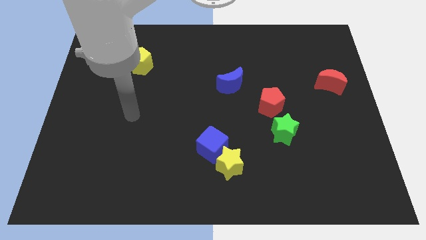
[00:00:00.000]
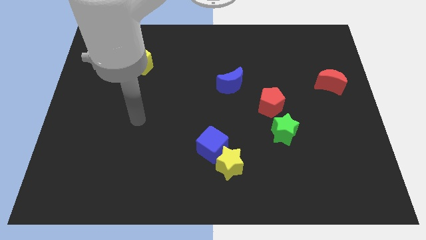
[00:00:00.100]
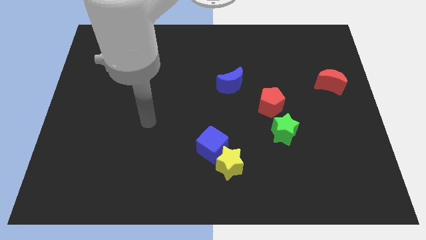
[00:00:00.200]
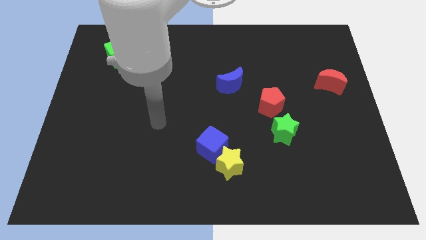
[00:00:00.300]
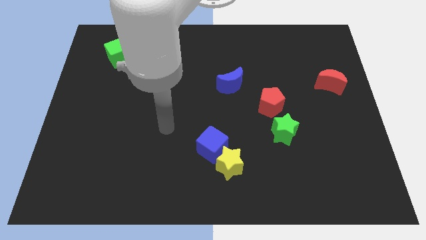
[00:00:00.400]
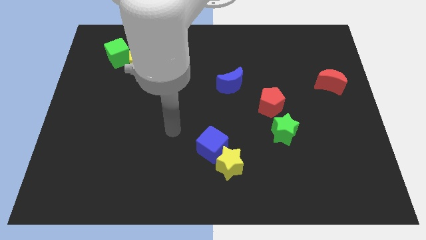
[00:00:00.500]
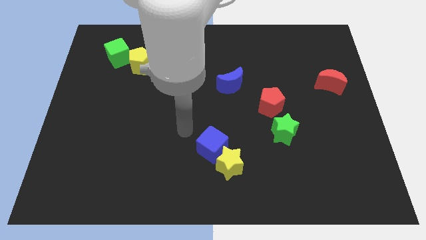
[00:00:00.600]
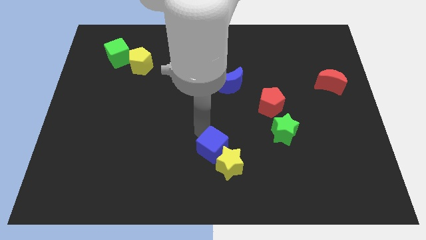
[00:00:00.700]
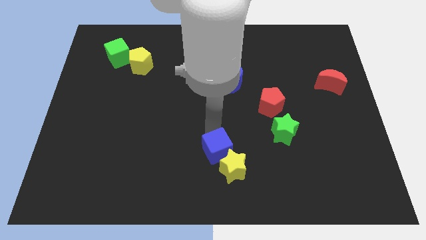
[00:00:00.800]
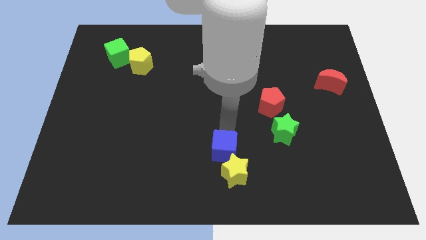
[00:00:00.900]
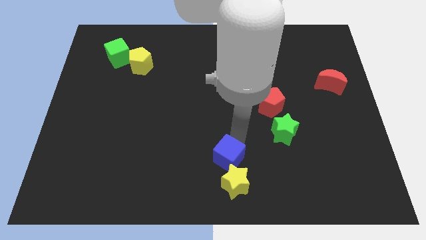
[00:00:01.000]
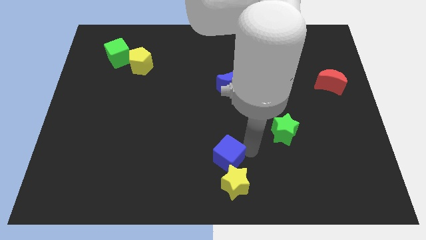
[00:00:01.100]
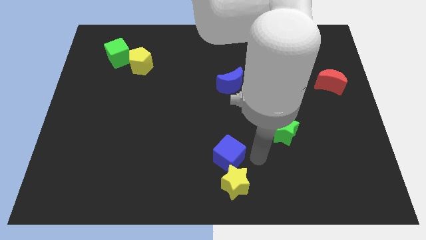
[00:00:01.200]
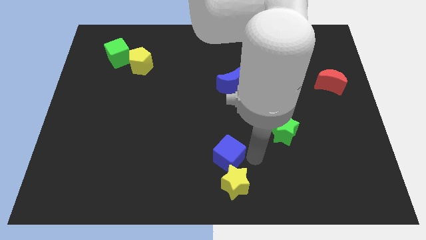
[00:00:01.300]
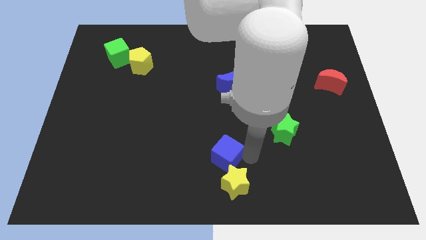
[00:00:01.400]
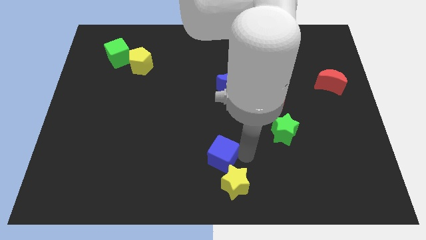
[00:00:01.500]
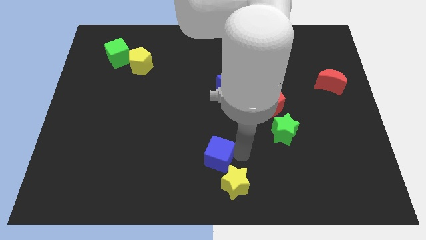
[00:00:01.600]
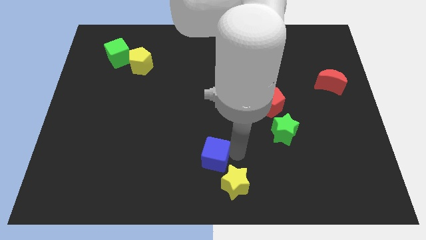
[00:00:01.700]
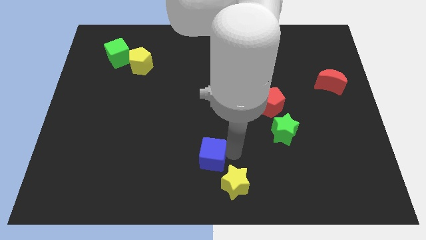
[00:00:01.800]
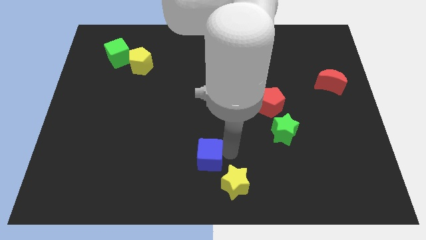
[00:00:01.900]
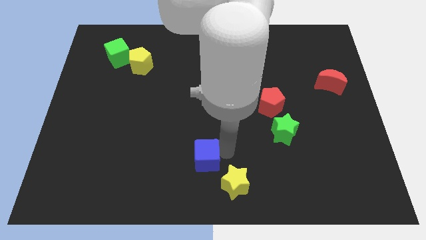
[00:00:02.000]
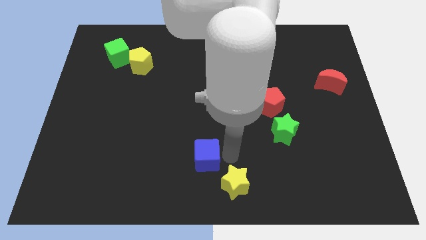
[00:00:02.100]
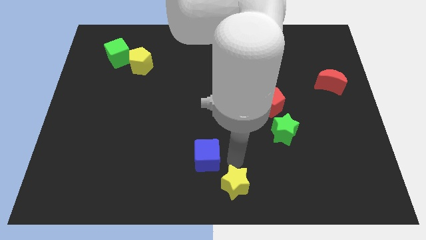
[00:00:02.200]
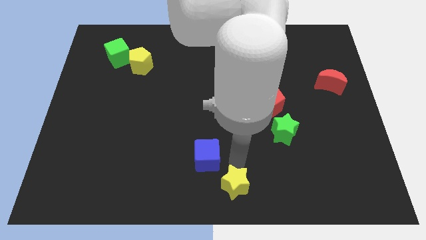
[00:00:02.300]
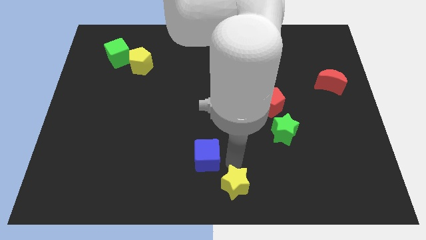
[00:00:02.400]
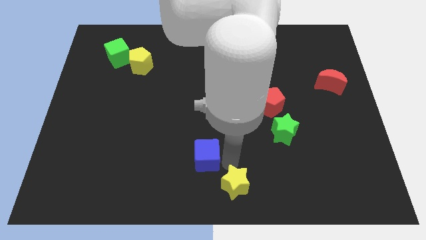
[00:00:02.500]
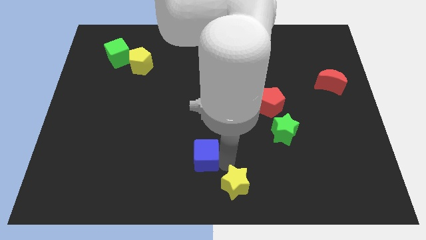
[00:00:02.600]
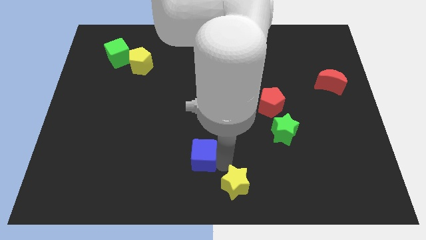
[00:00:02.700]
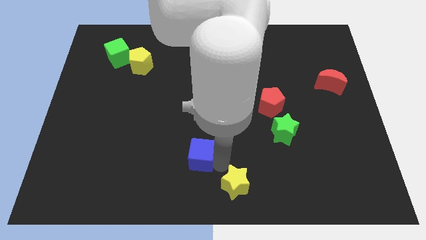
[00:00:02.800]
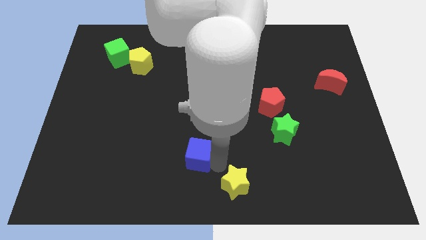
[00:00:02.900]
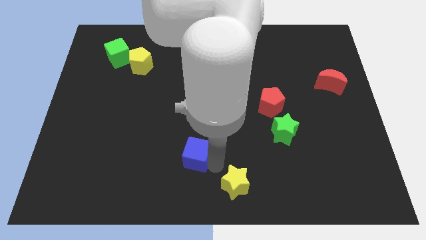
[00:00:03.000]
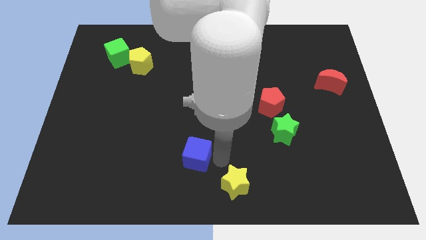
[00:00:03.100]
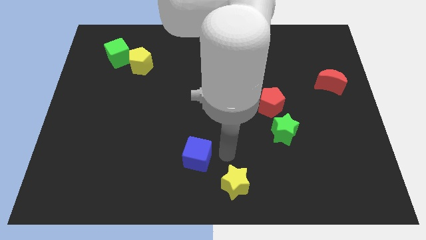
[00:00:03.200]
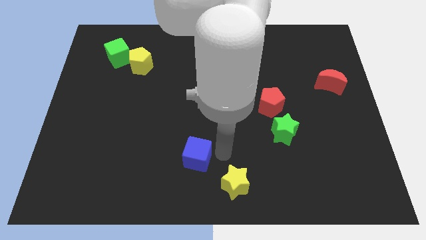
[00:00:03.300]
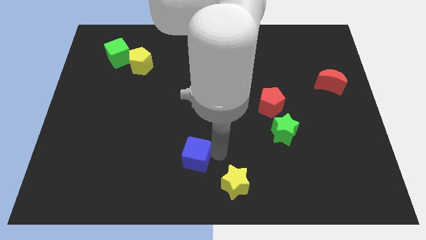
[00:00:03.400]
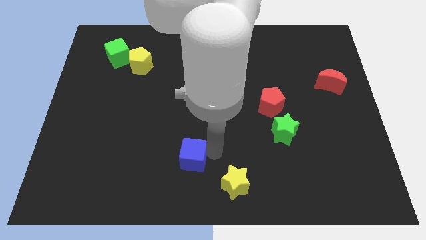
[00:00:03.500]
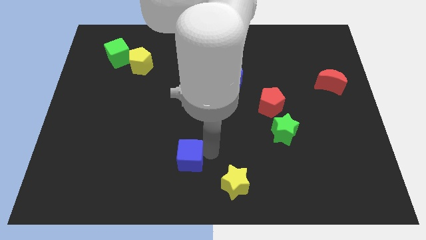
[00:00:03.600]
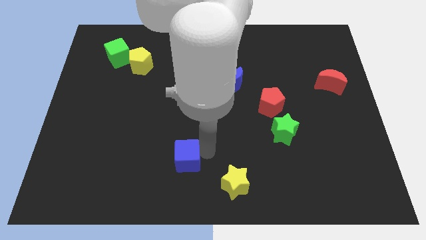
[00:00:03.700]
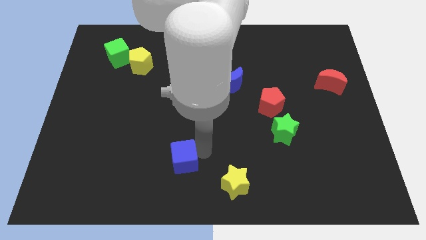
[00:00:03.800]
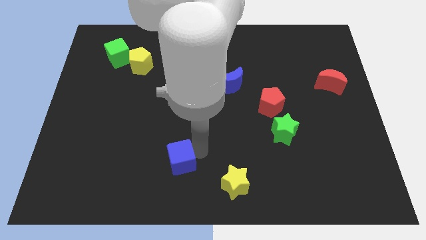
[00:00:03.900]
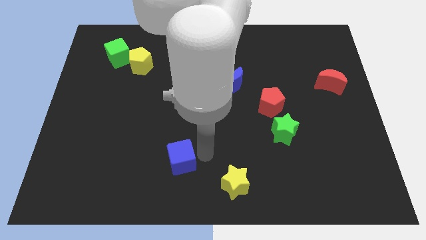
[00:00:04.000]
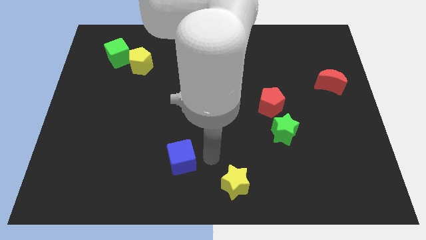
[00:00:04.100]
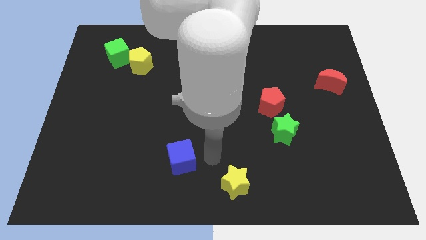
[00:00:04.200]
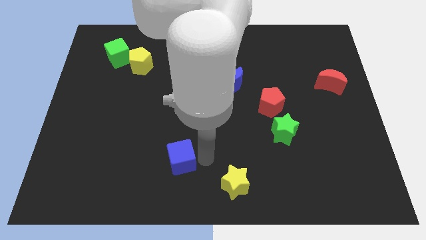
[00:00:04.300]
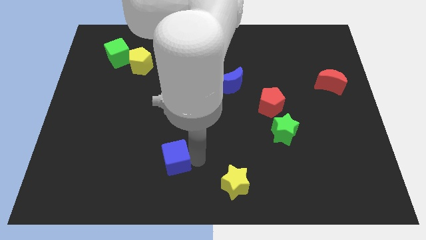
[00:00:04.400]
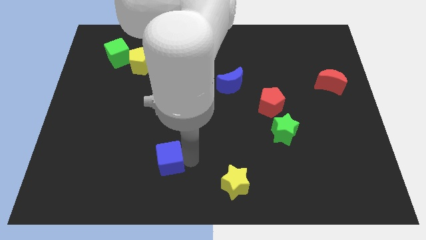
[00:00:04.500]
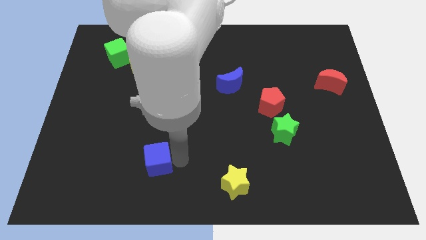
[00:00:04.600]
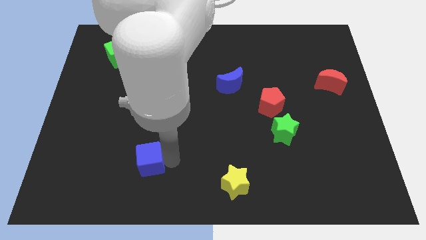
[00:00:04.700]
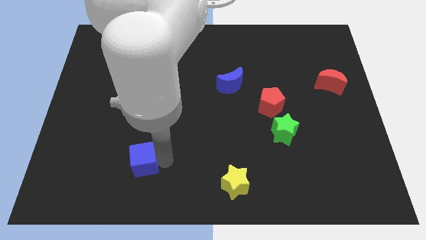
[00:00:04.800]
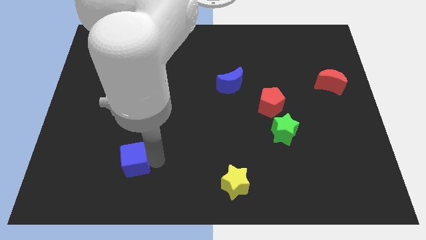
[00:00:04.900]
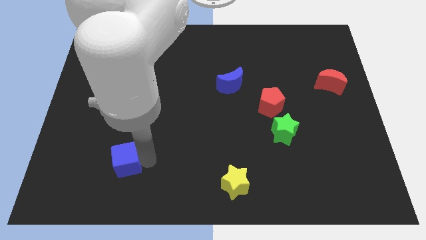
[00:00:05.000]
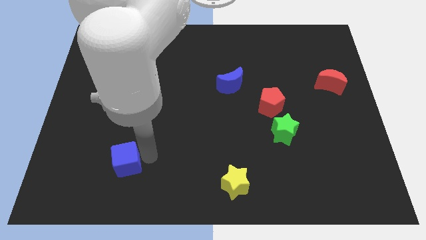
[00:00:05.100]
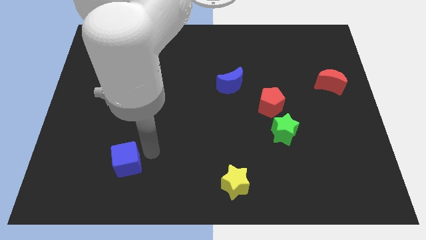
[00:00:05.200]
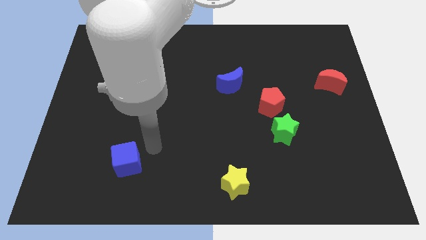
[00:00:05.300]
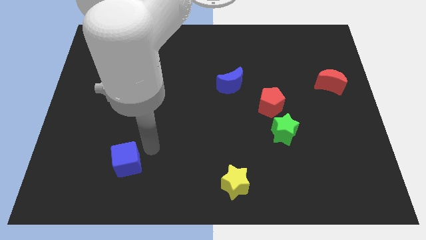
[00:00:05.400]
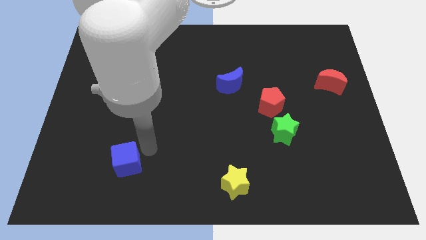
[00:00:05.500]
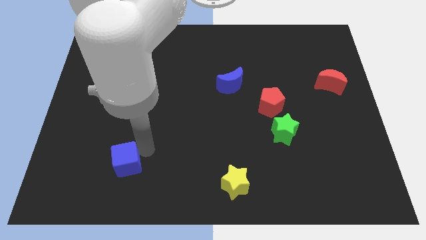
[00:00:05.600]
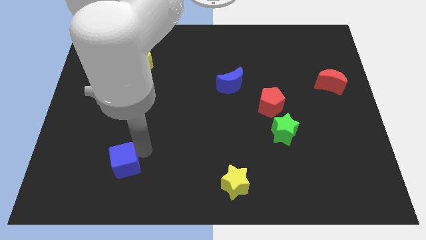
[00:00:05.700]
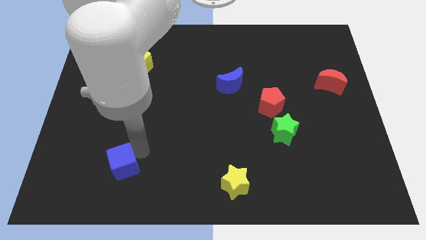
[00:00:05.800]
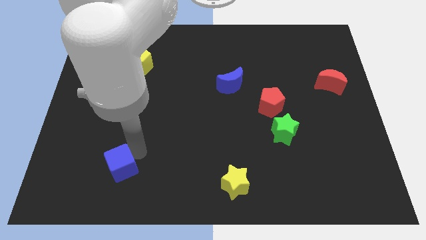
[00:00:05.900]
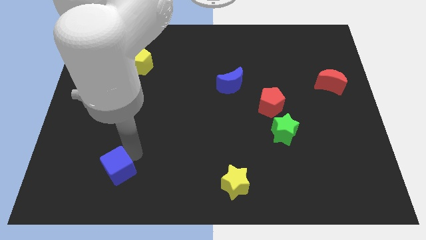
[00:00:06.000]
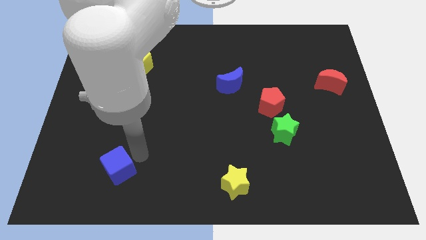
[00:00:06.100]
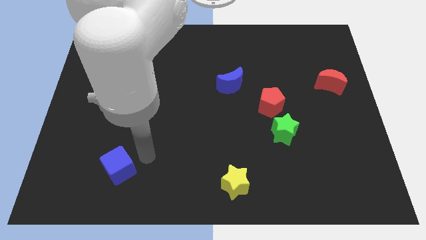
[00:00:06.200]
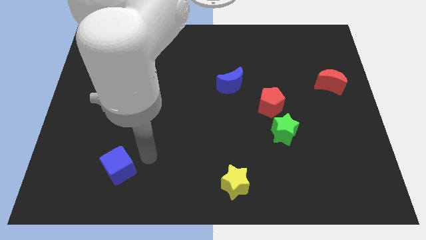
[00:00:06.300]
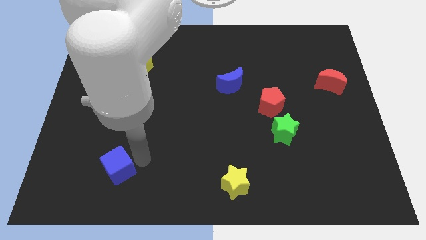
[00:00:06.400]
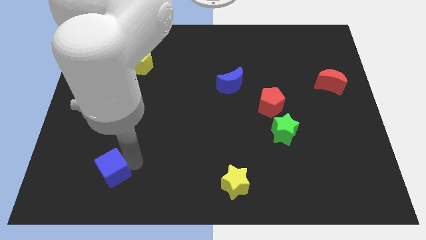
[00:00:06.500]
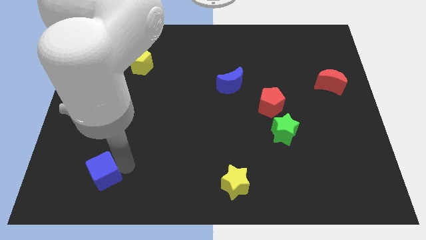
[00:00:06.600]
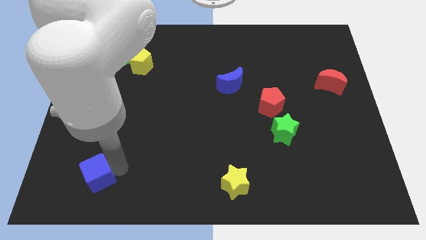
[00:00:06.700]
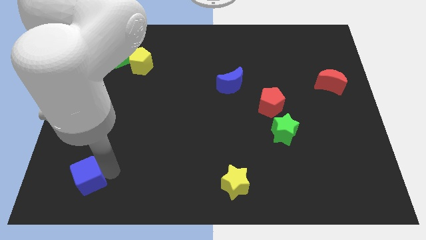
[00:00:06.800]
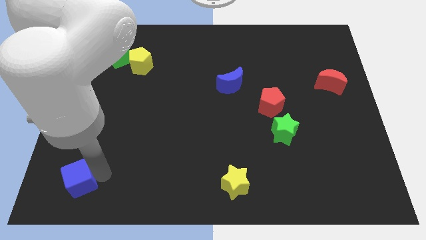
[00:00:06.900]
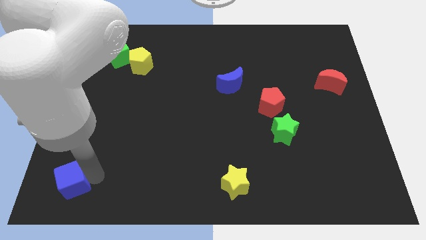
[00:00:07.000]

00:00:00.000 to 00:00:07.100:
put the blue cube to the bottom left
